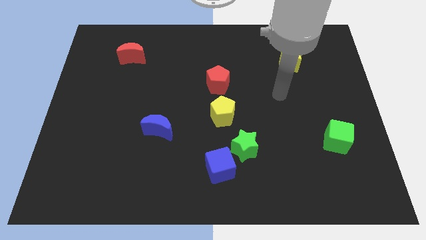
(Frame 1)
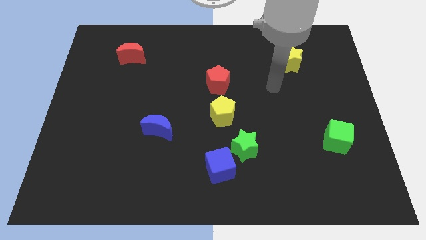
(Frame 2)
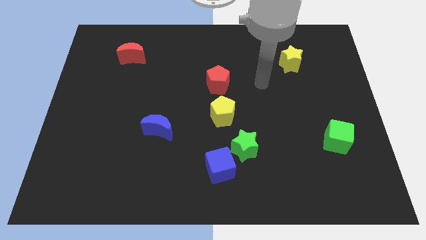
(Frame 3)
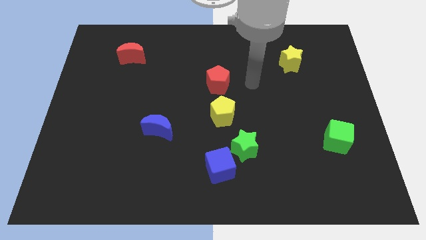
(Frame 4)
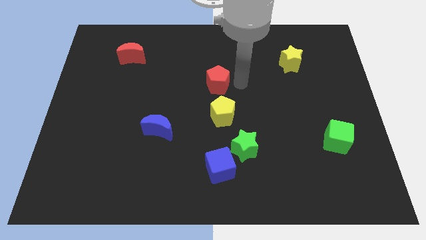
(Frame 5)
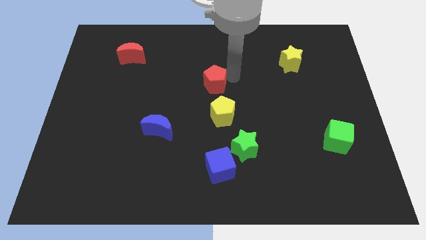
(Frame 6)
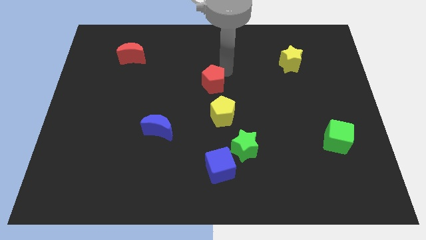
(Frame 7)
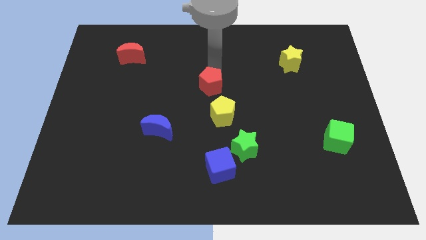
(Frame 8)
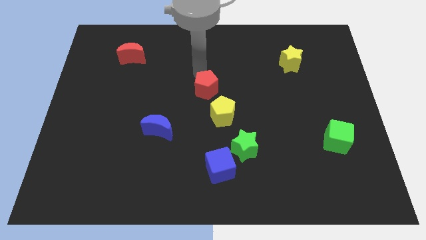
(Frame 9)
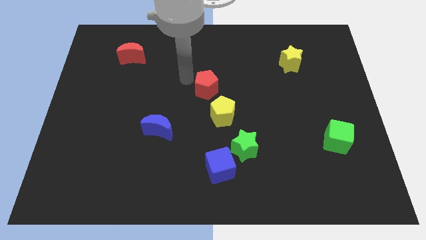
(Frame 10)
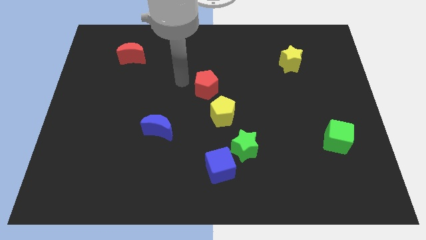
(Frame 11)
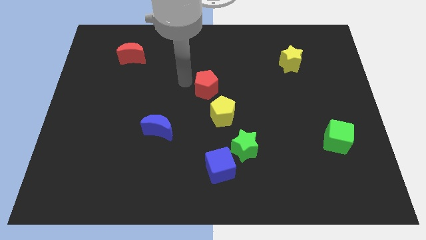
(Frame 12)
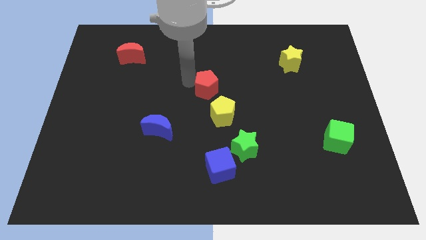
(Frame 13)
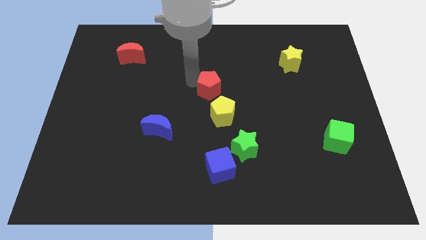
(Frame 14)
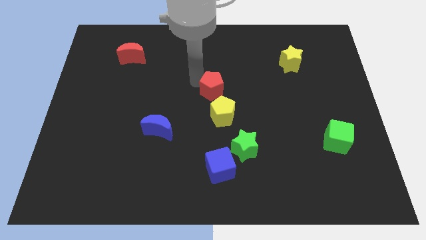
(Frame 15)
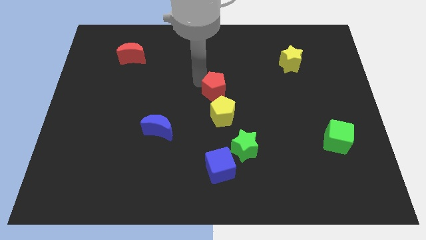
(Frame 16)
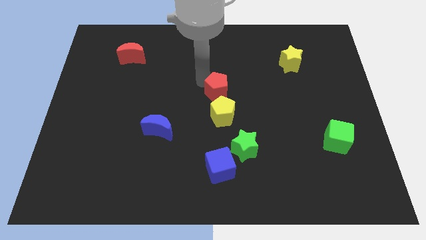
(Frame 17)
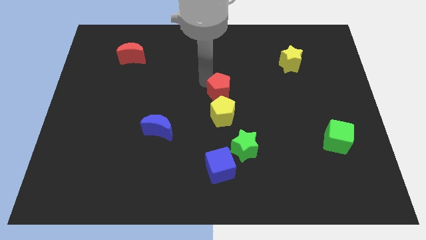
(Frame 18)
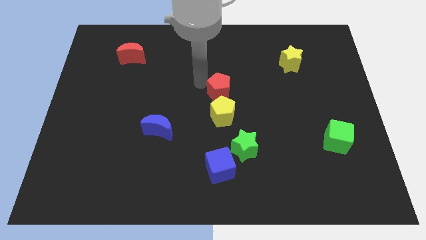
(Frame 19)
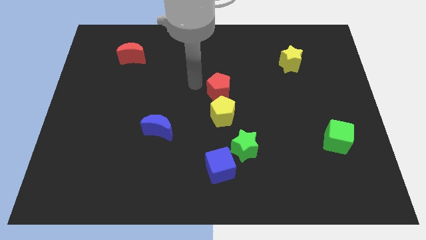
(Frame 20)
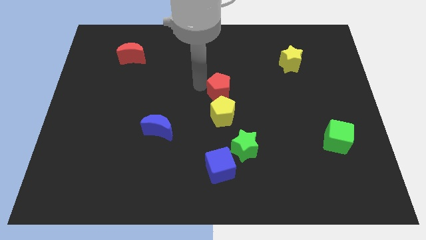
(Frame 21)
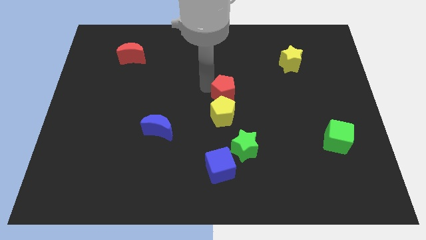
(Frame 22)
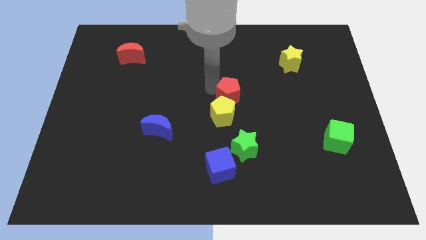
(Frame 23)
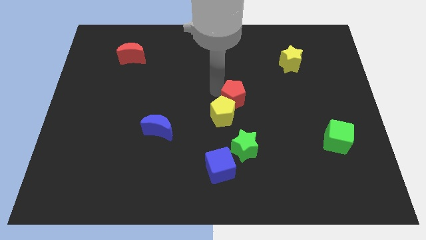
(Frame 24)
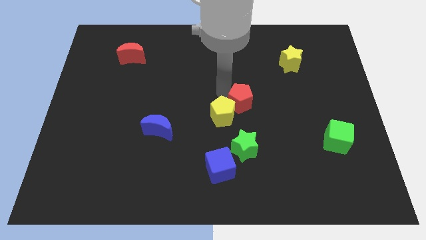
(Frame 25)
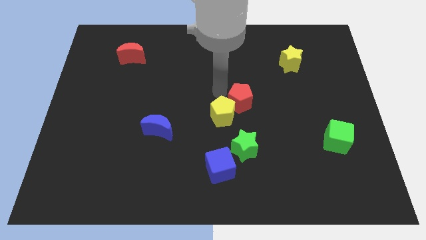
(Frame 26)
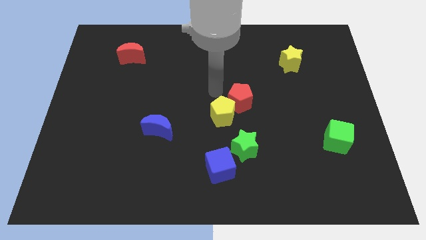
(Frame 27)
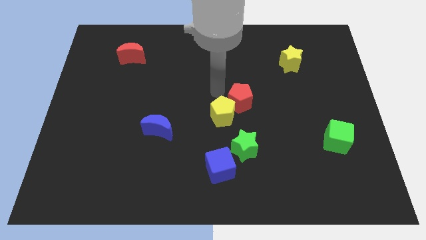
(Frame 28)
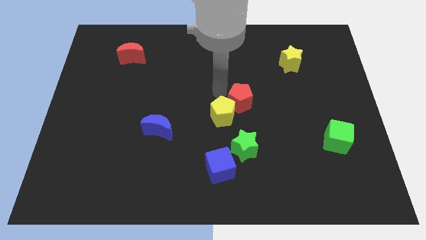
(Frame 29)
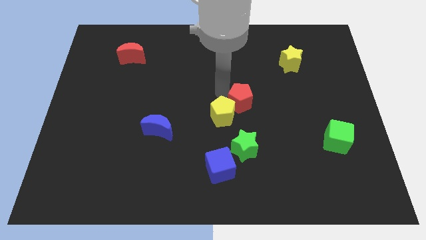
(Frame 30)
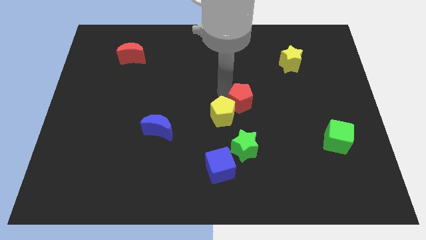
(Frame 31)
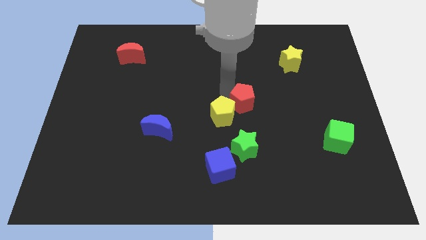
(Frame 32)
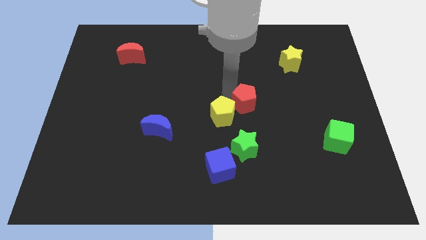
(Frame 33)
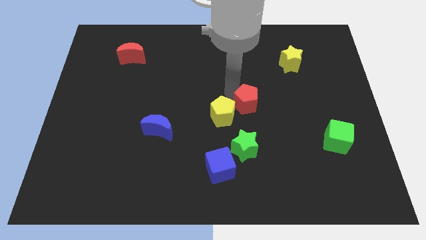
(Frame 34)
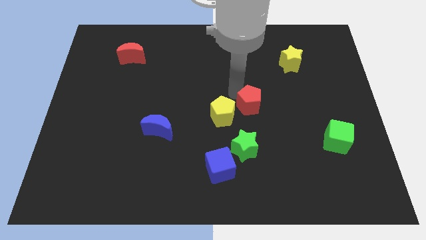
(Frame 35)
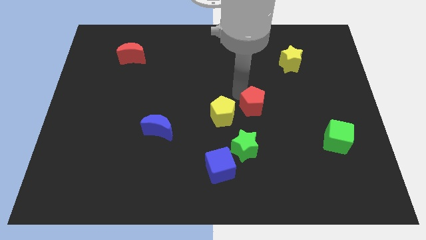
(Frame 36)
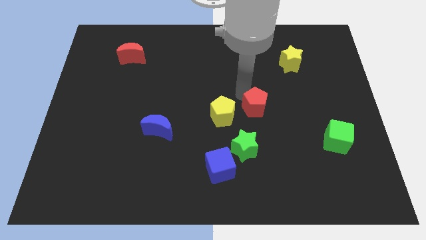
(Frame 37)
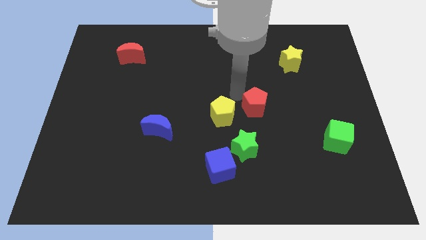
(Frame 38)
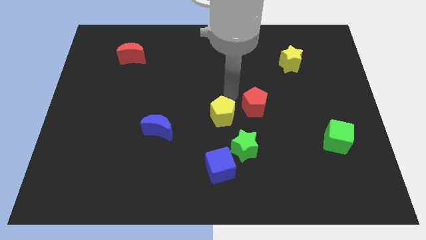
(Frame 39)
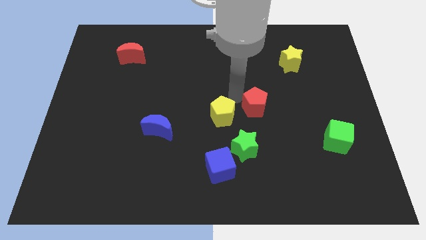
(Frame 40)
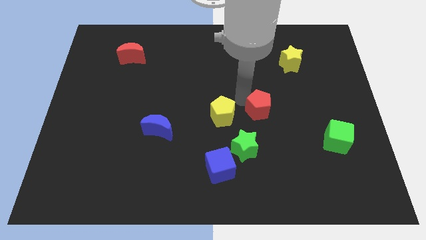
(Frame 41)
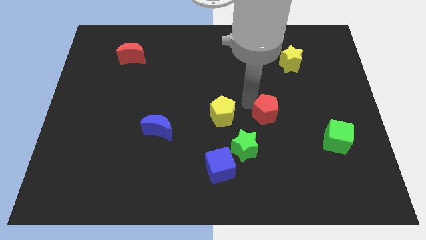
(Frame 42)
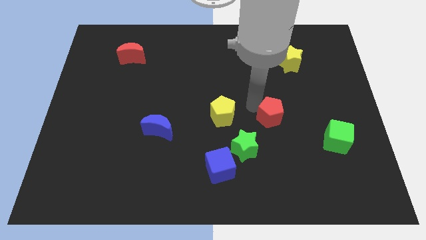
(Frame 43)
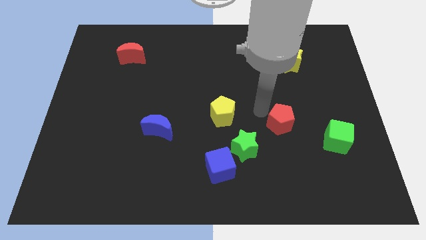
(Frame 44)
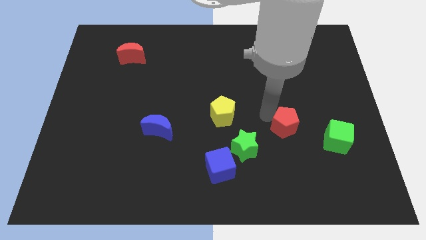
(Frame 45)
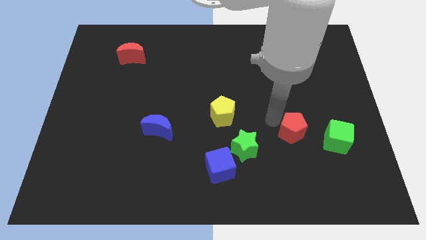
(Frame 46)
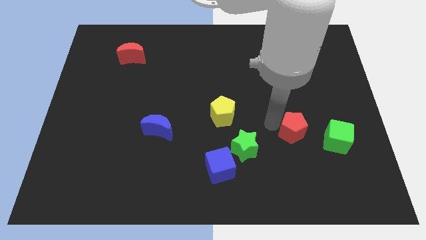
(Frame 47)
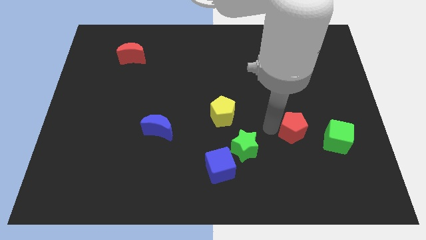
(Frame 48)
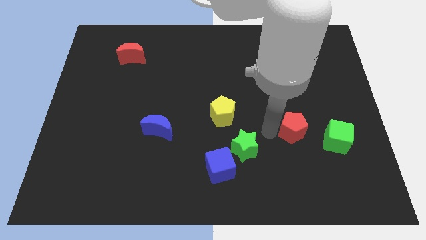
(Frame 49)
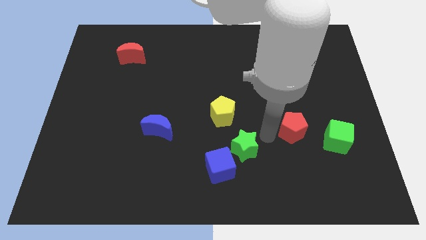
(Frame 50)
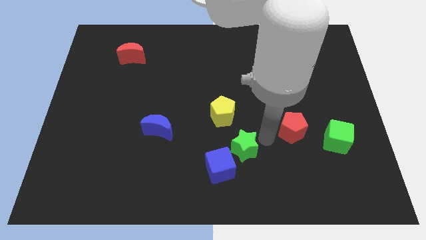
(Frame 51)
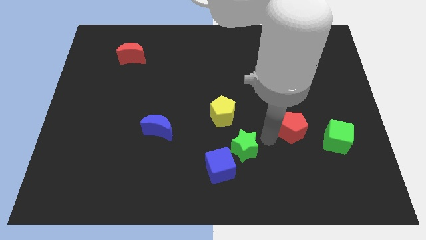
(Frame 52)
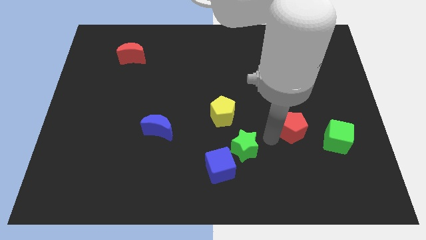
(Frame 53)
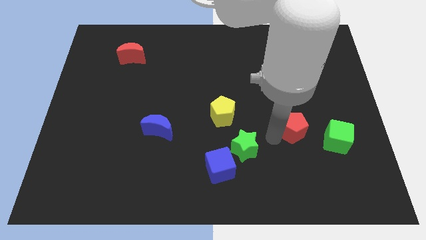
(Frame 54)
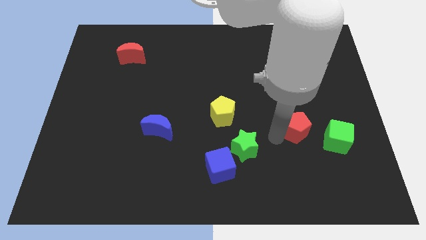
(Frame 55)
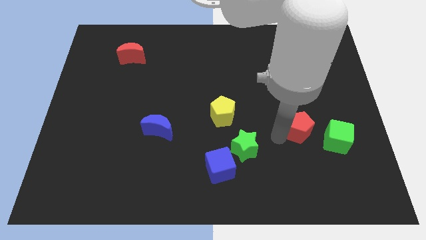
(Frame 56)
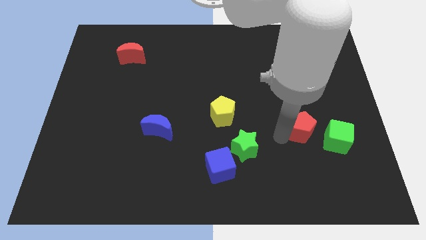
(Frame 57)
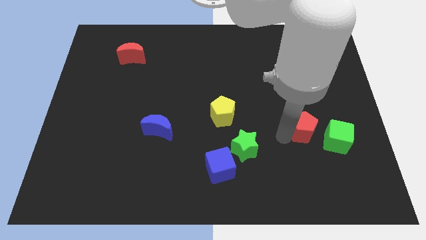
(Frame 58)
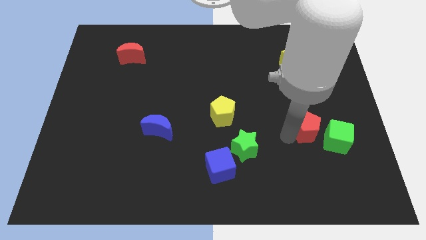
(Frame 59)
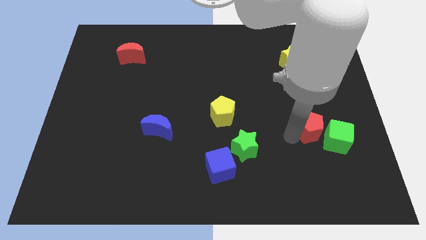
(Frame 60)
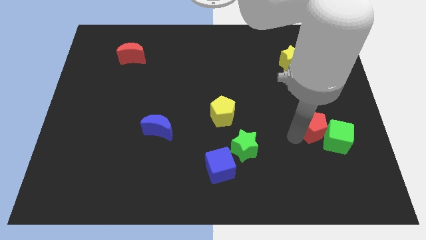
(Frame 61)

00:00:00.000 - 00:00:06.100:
push the red pentagon towards the green cube

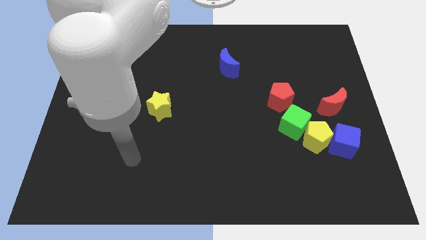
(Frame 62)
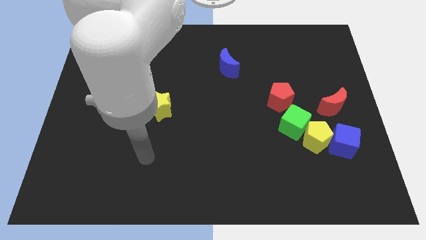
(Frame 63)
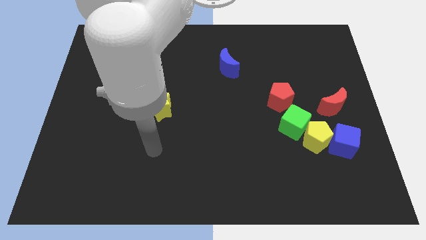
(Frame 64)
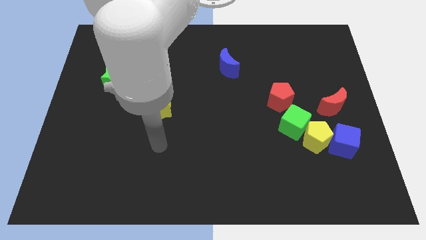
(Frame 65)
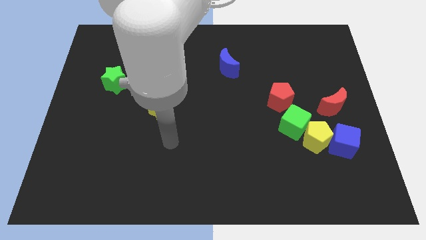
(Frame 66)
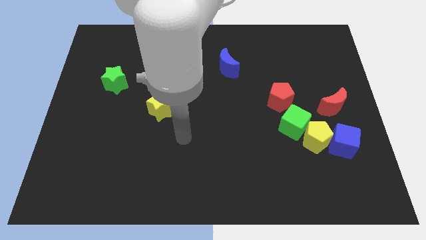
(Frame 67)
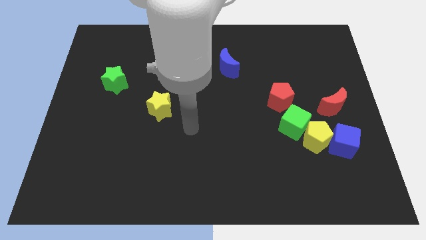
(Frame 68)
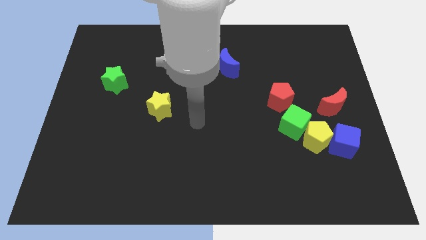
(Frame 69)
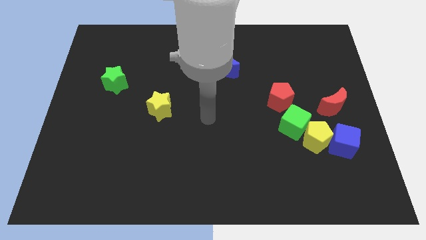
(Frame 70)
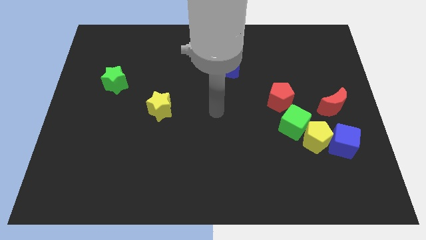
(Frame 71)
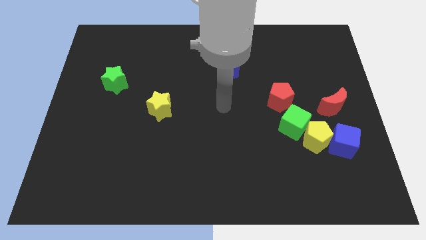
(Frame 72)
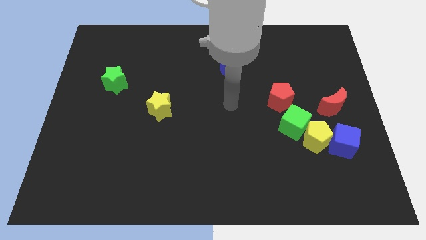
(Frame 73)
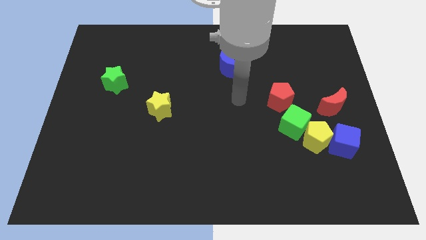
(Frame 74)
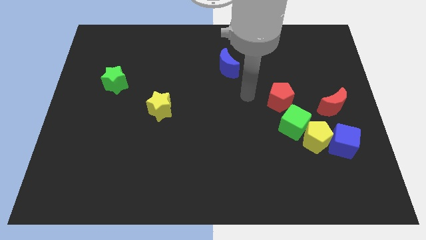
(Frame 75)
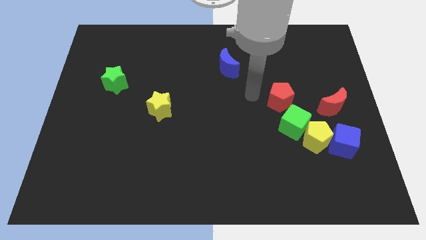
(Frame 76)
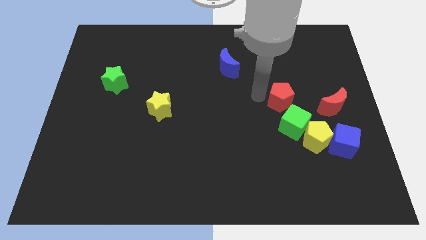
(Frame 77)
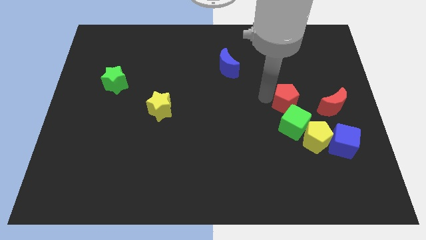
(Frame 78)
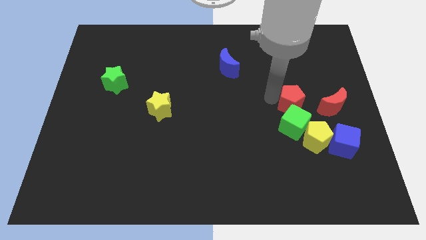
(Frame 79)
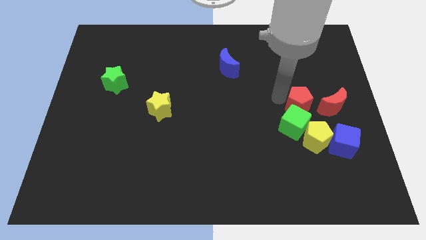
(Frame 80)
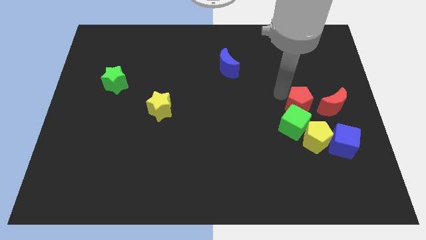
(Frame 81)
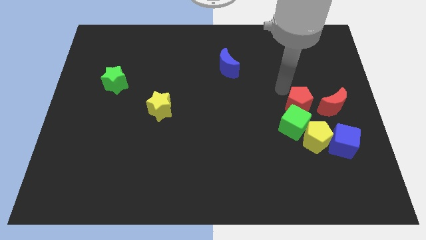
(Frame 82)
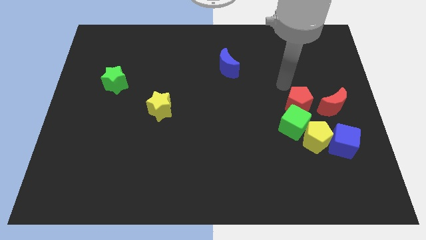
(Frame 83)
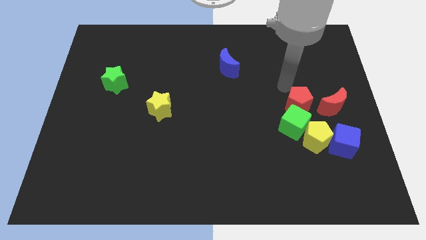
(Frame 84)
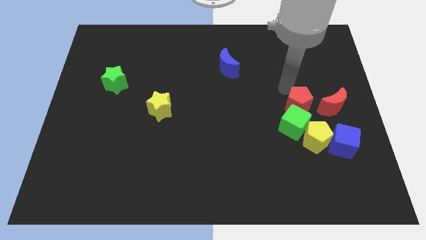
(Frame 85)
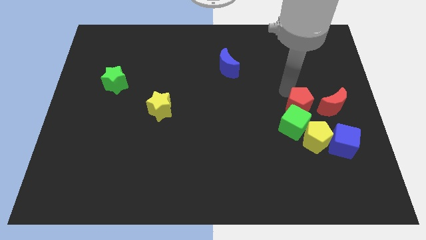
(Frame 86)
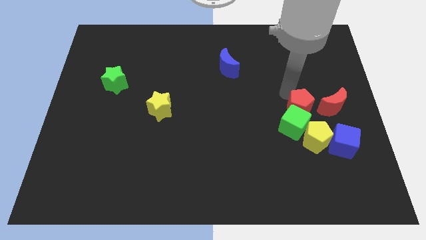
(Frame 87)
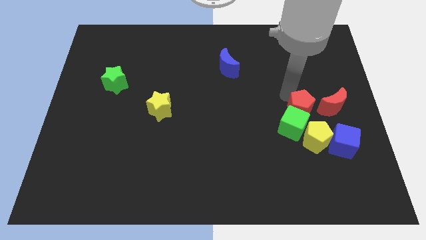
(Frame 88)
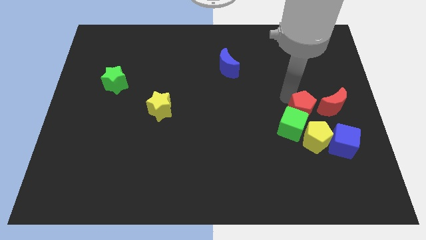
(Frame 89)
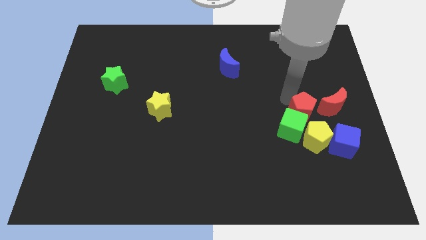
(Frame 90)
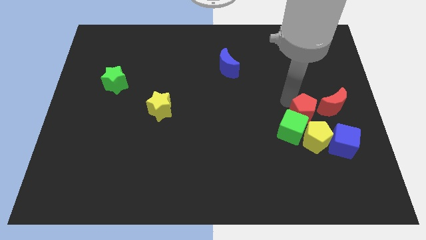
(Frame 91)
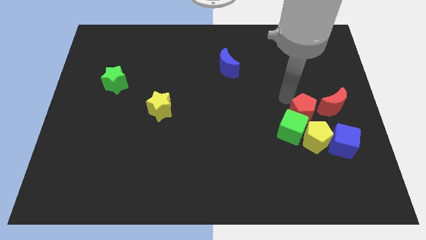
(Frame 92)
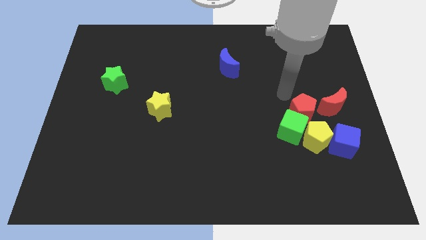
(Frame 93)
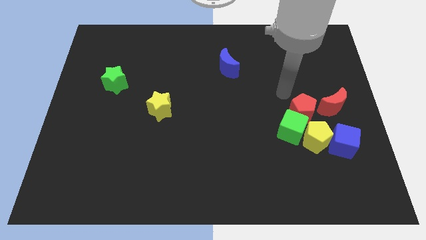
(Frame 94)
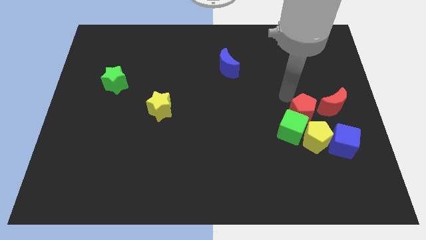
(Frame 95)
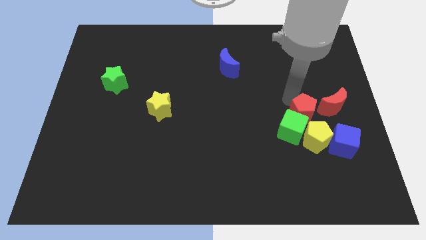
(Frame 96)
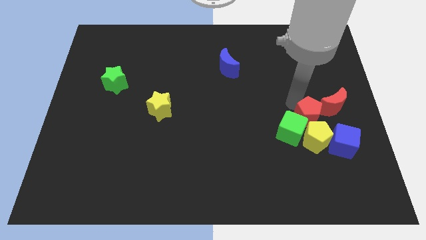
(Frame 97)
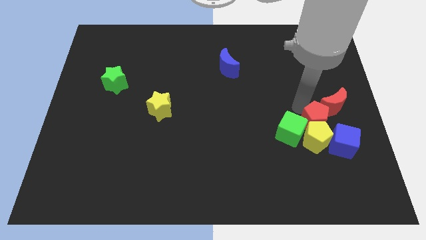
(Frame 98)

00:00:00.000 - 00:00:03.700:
slide the red pentagon next to the yellow pentagon
